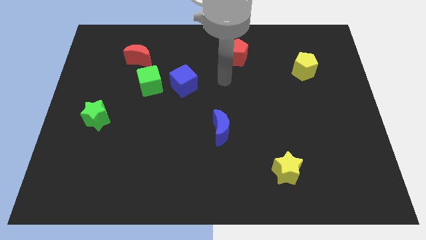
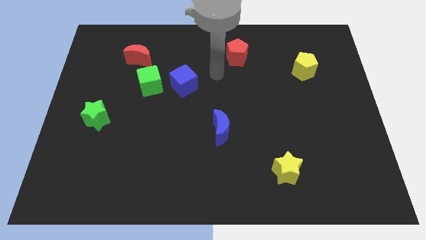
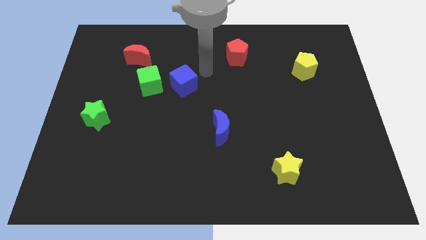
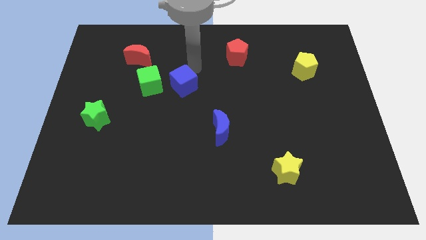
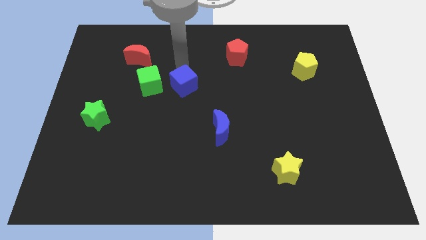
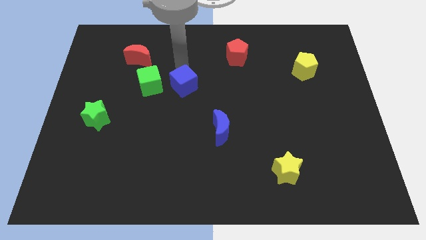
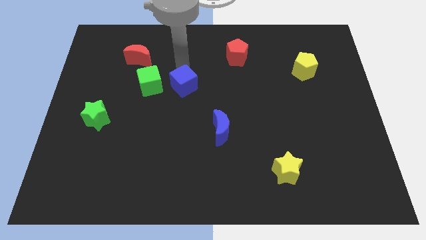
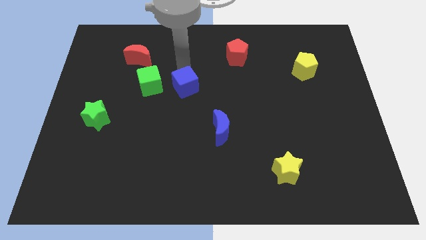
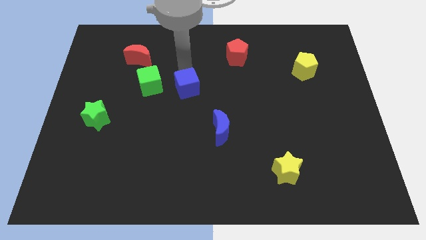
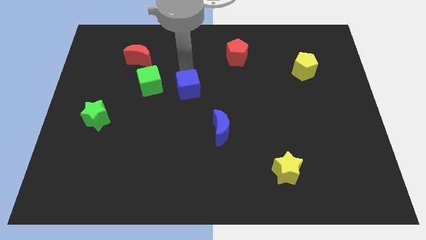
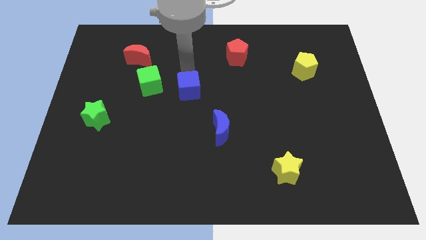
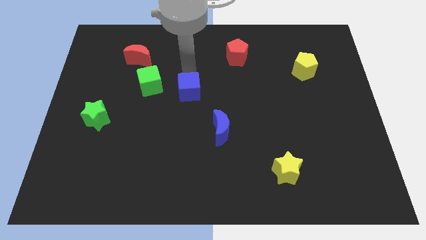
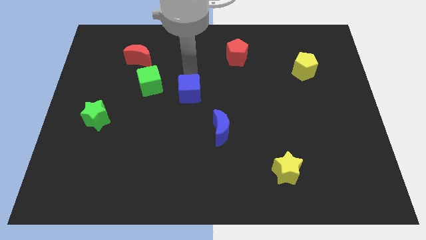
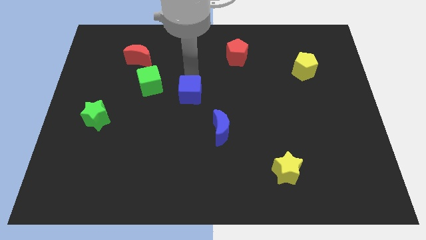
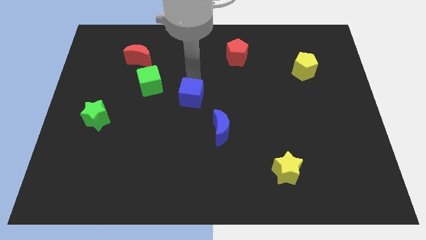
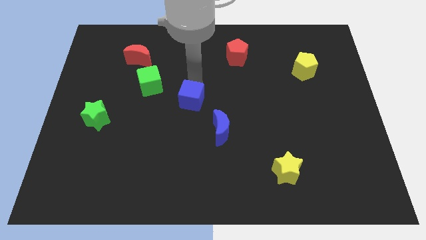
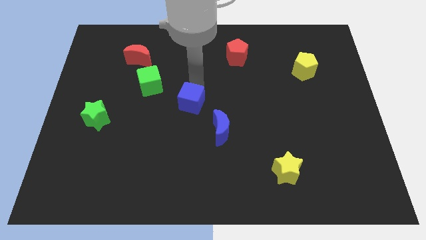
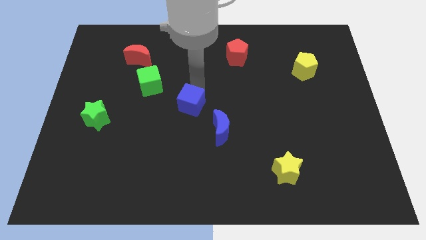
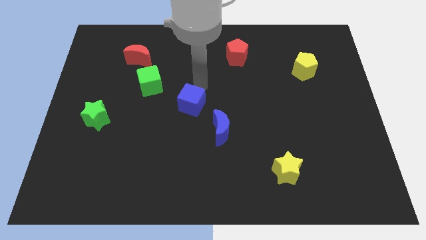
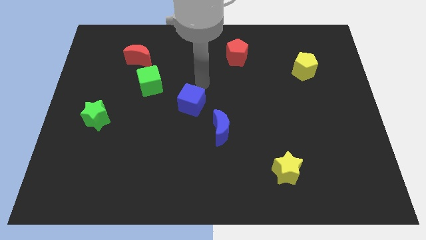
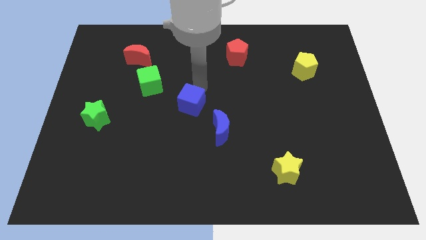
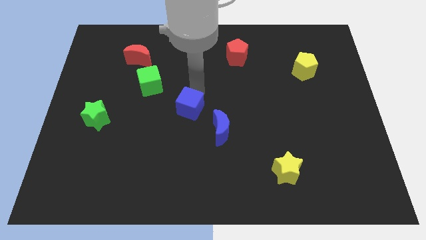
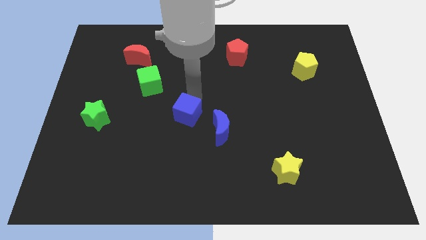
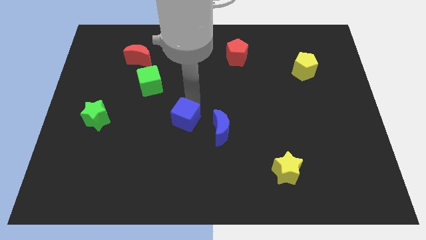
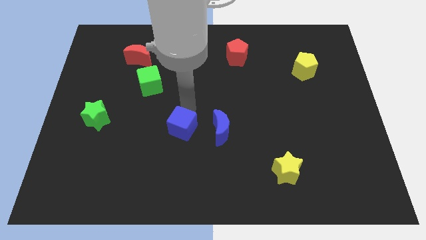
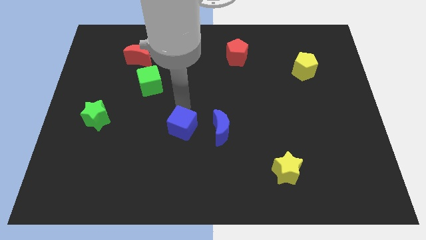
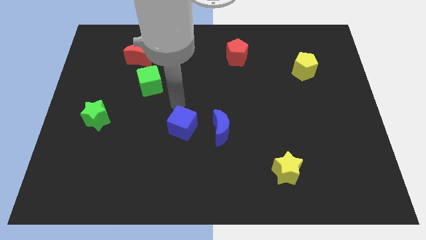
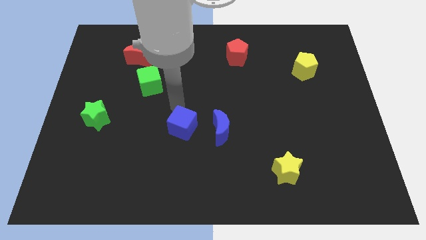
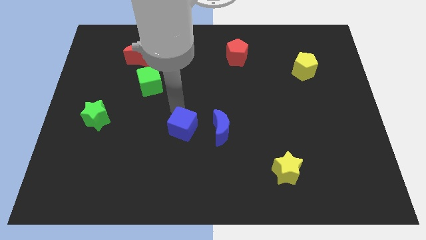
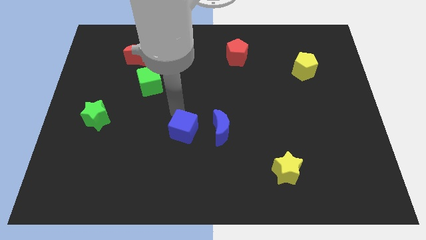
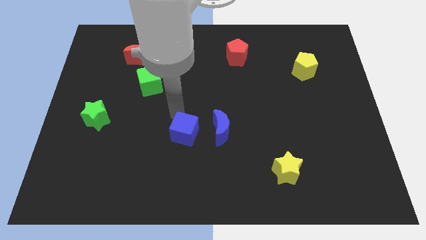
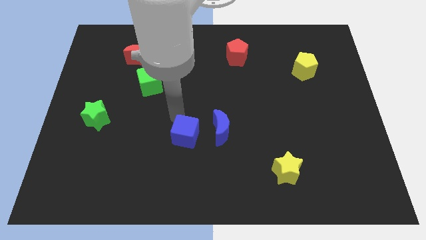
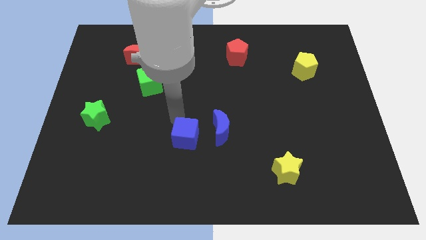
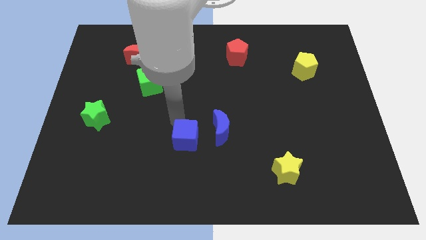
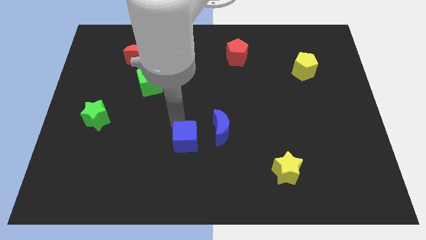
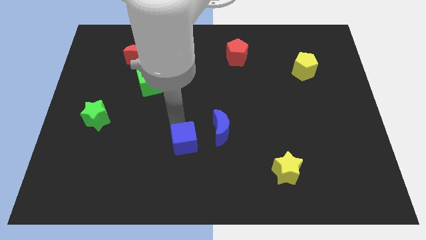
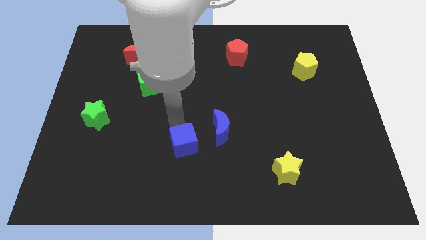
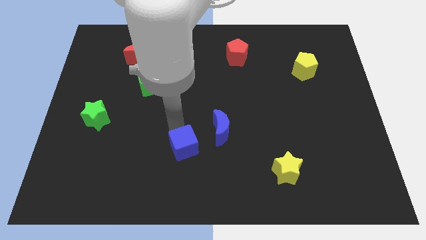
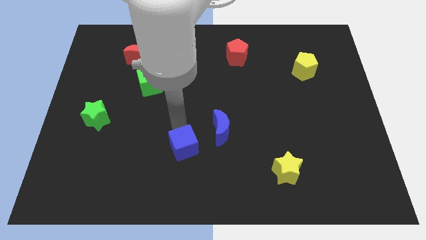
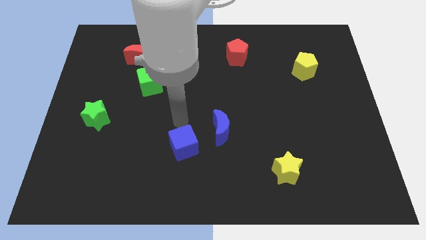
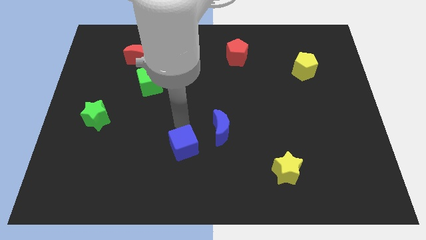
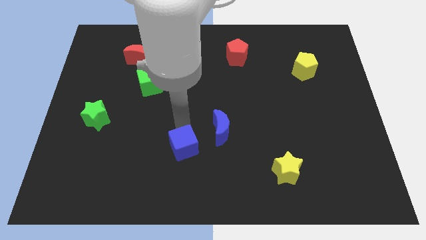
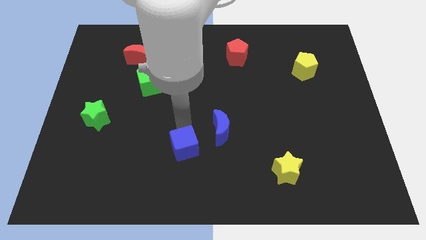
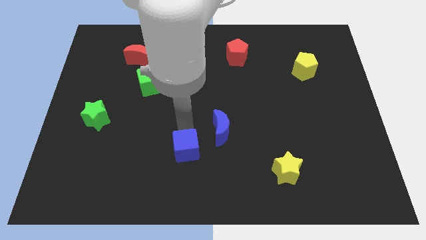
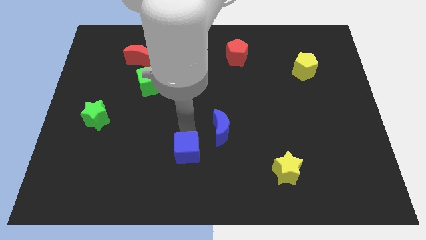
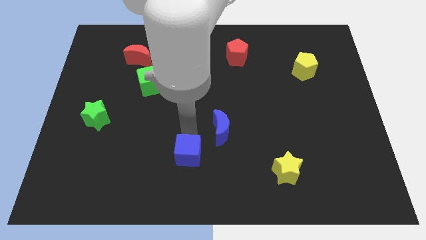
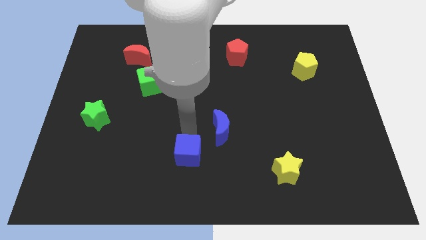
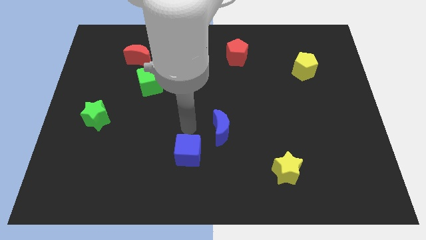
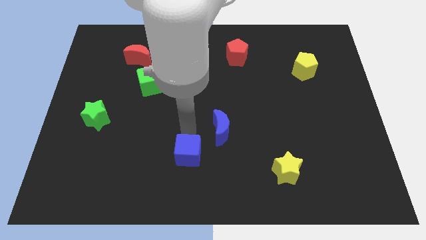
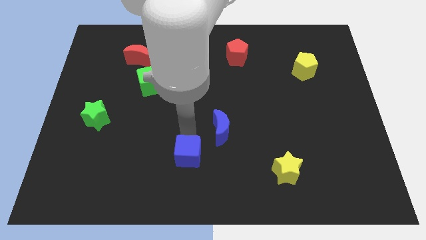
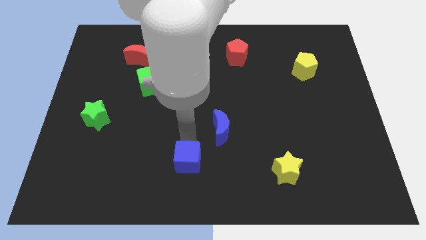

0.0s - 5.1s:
move the blue cube to the bottom side

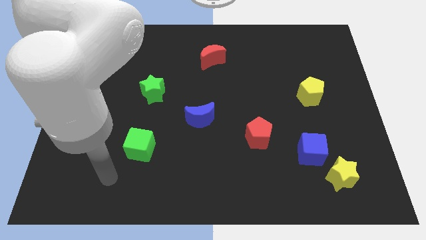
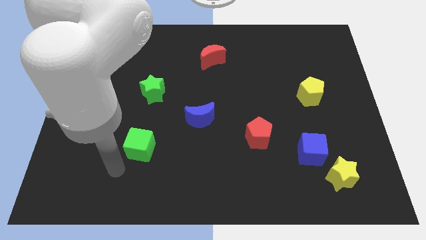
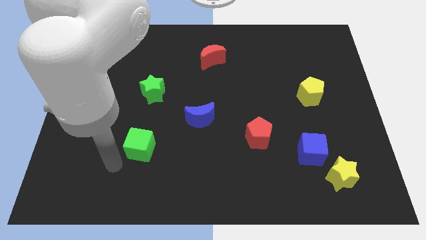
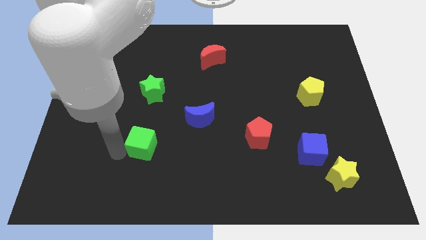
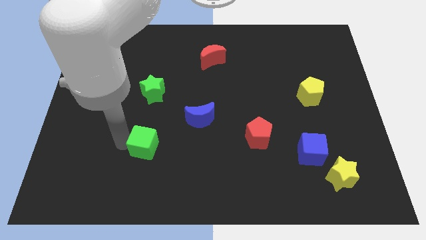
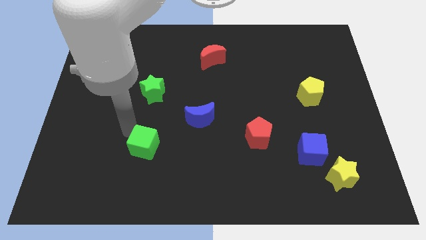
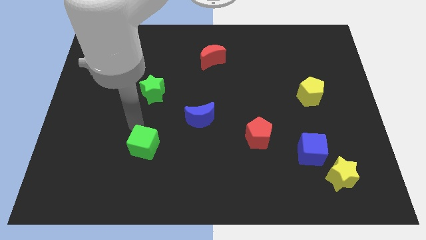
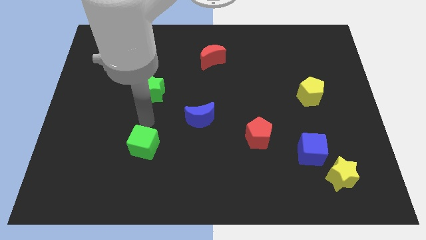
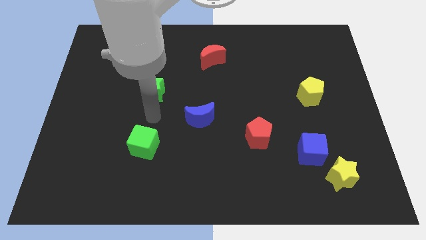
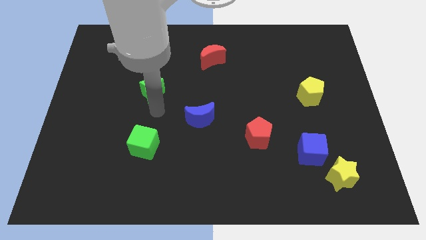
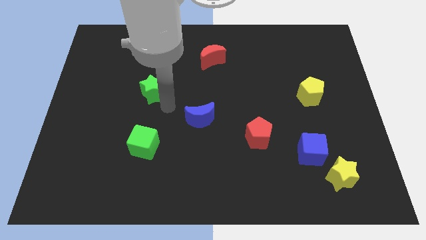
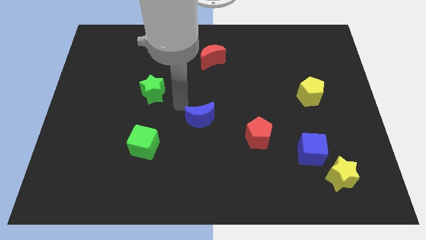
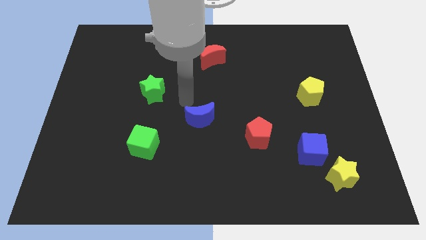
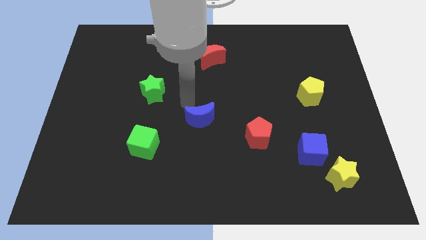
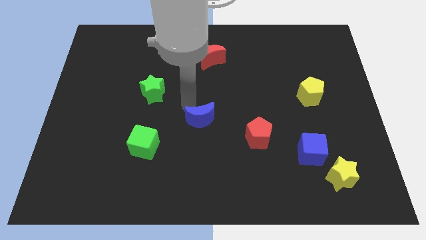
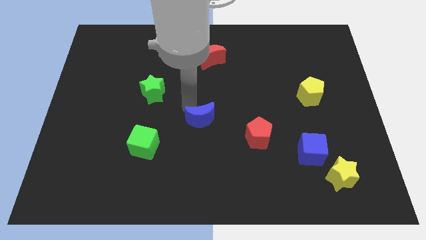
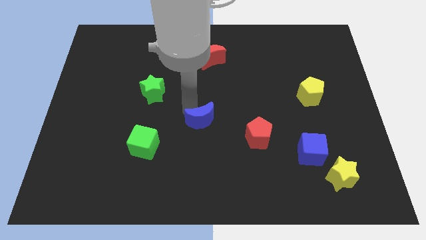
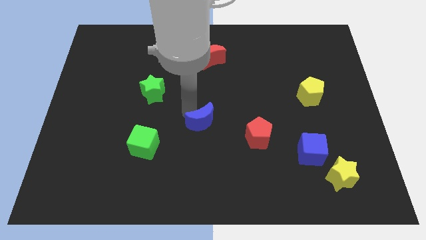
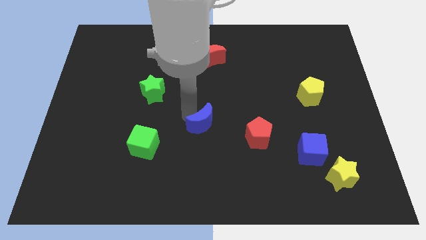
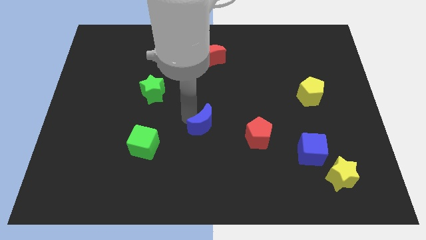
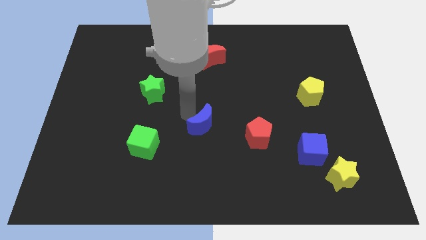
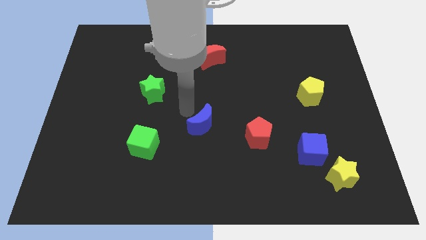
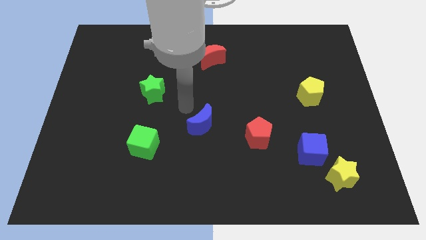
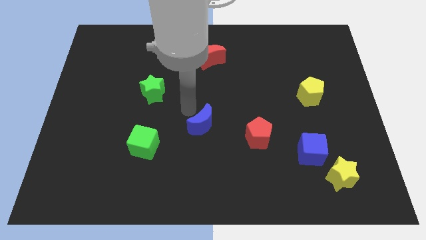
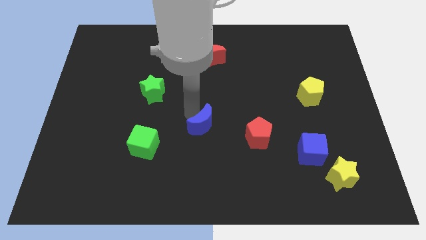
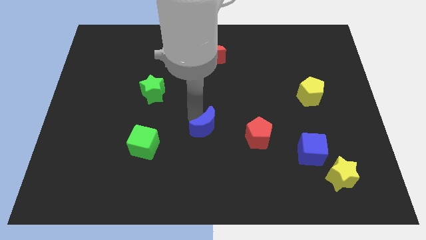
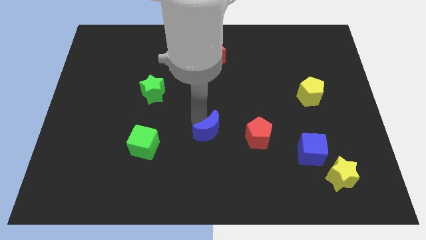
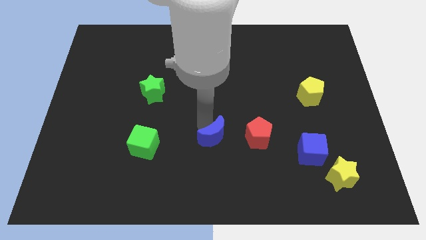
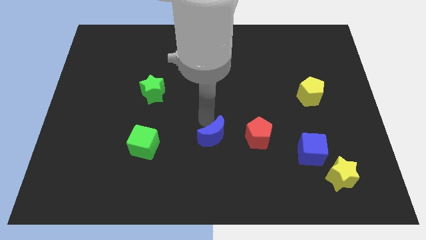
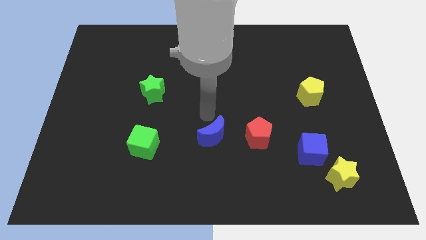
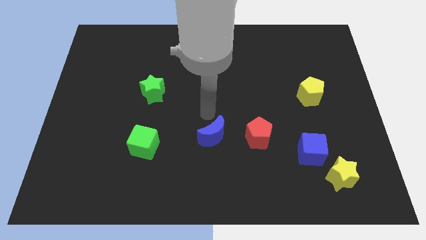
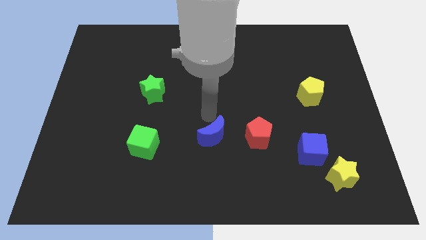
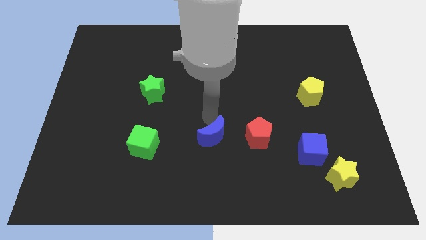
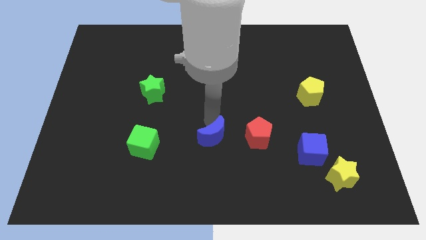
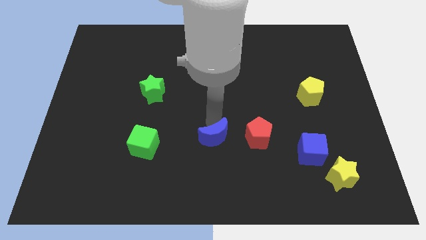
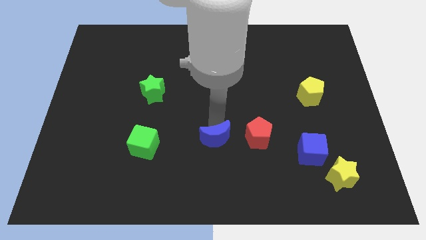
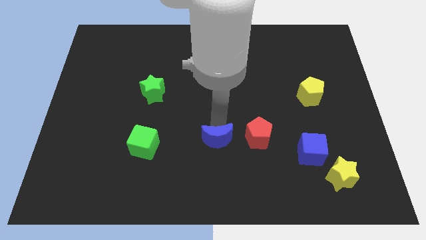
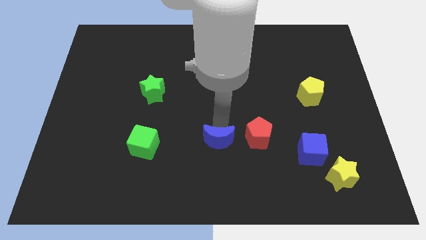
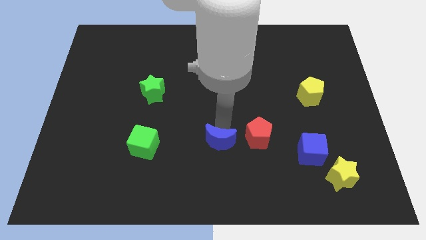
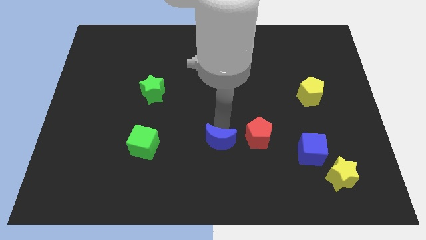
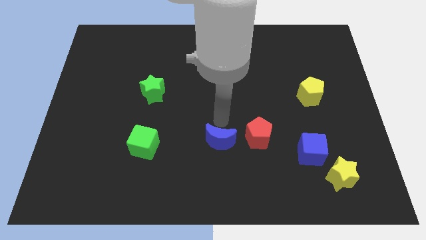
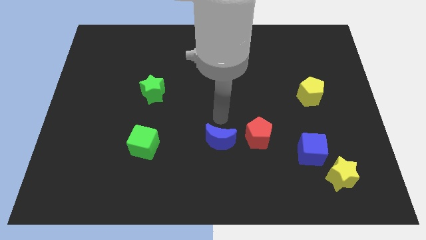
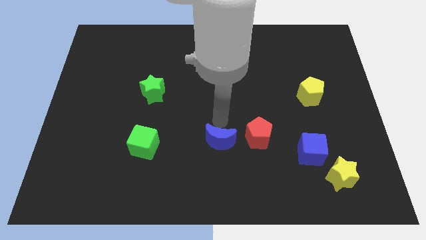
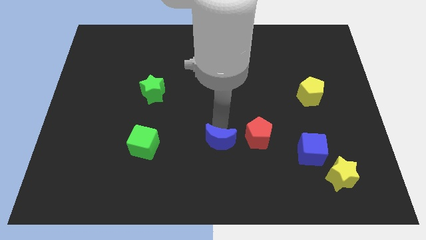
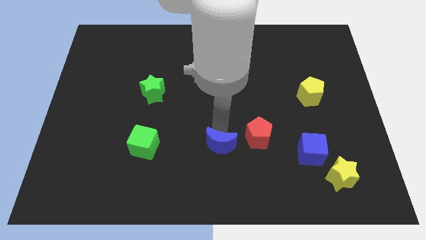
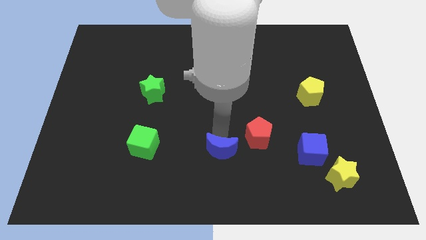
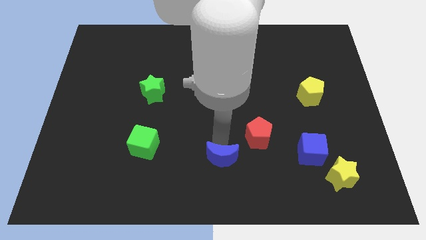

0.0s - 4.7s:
slide the blue moon to the bottom
